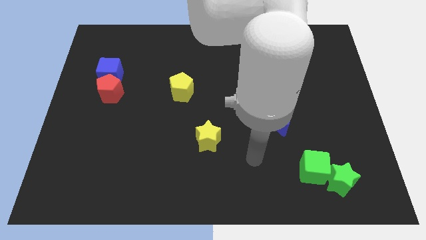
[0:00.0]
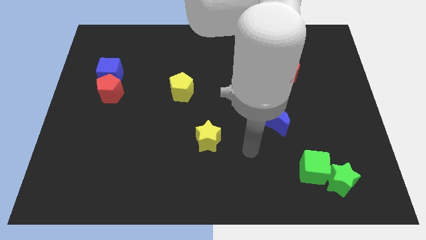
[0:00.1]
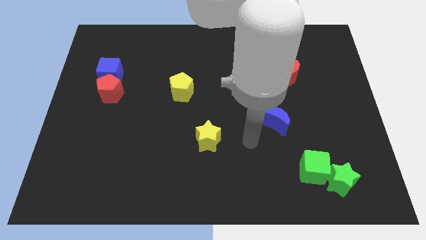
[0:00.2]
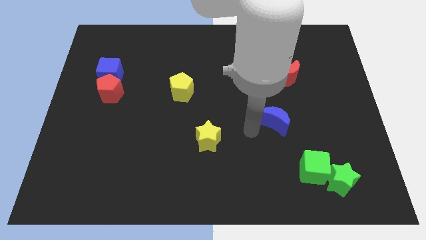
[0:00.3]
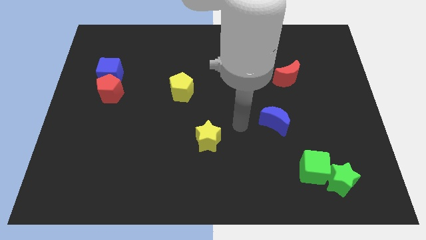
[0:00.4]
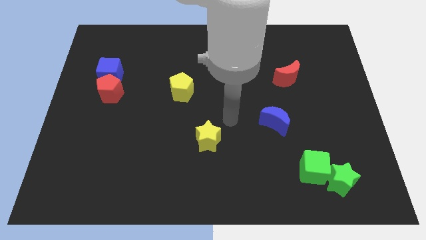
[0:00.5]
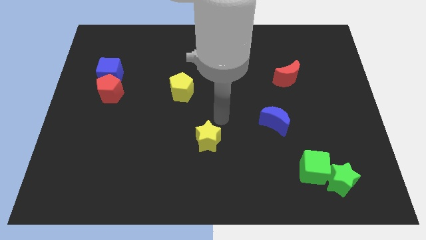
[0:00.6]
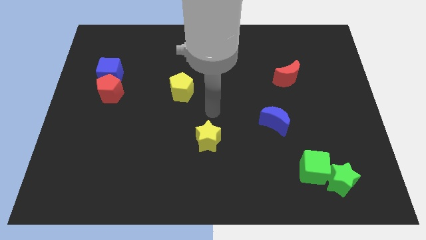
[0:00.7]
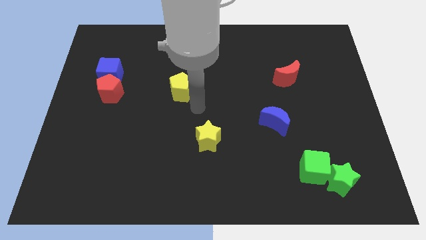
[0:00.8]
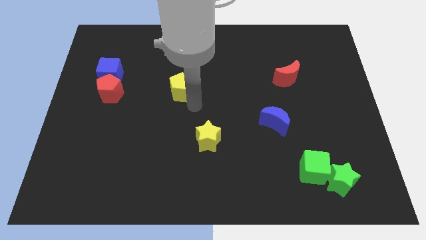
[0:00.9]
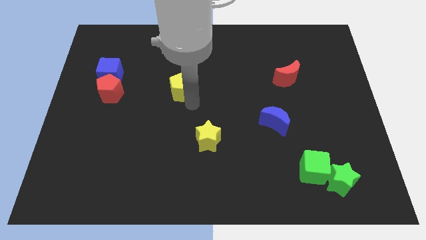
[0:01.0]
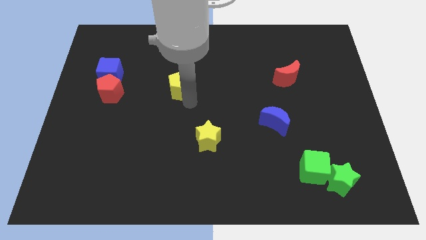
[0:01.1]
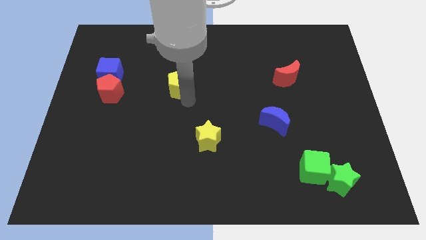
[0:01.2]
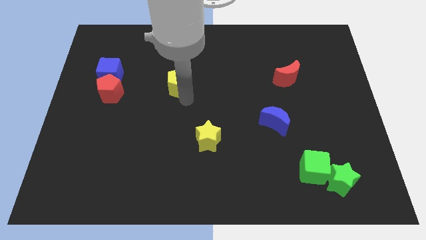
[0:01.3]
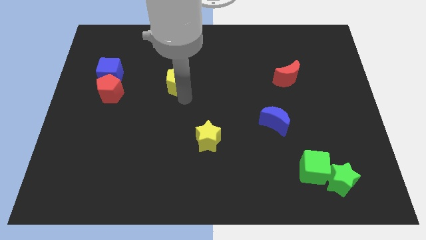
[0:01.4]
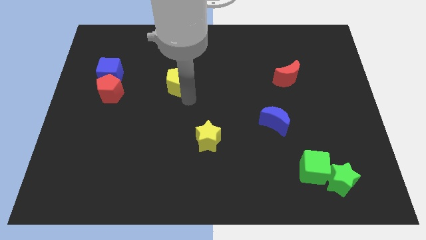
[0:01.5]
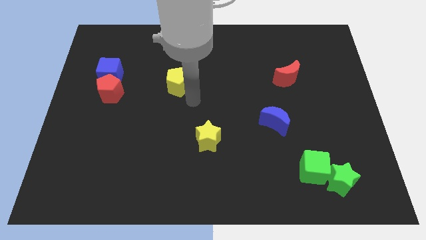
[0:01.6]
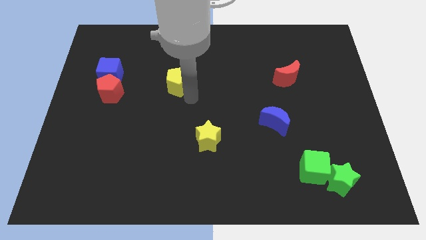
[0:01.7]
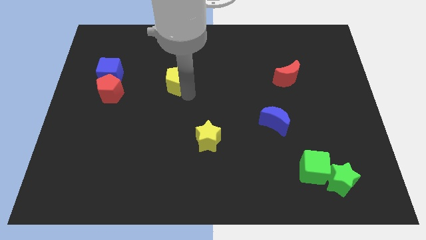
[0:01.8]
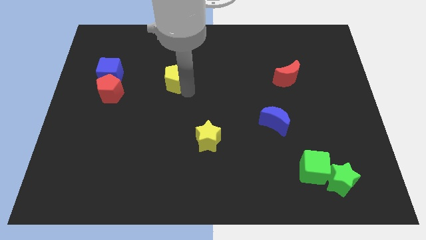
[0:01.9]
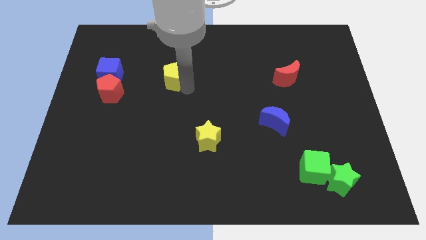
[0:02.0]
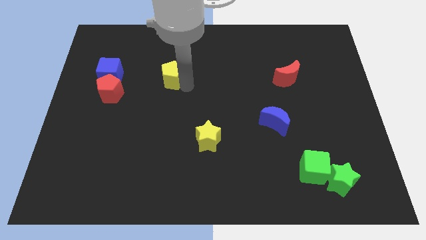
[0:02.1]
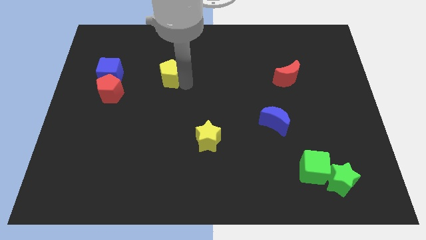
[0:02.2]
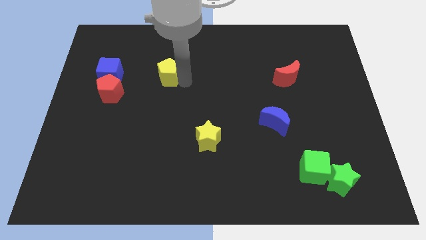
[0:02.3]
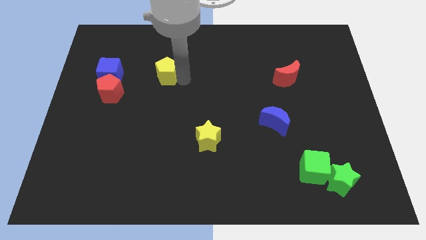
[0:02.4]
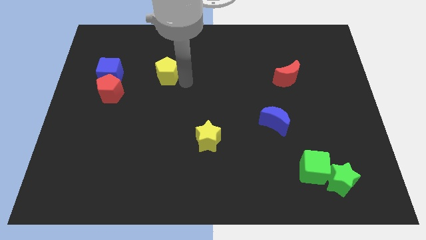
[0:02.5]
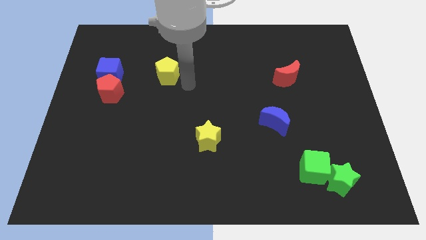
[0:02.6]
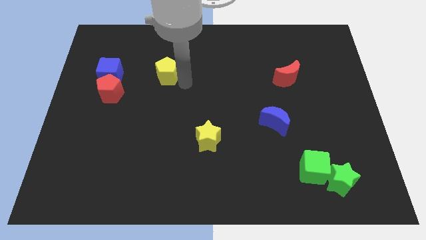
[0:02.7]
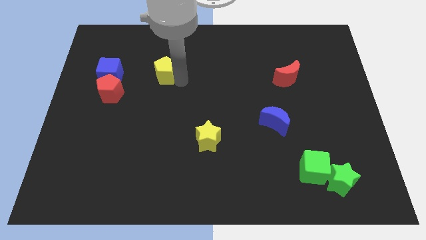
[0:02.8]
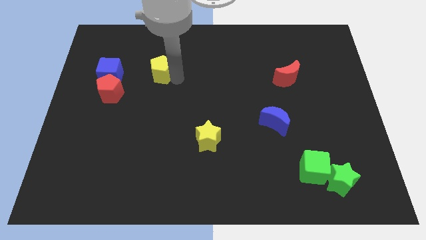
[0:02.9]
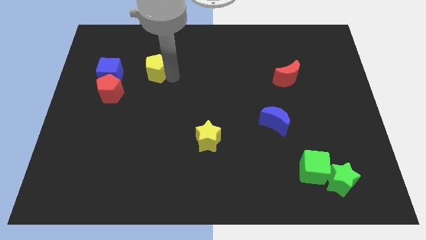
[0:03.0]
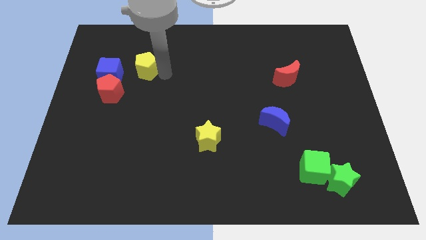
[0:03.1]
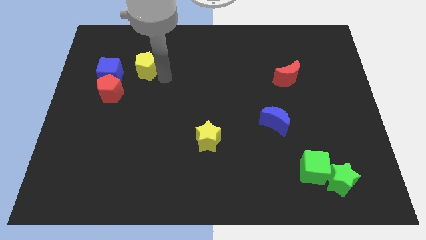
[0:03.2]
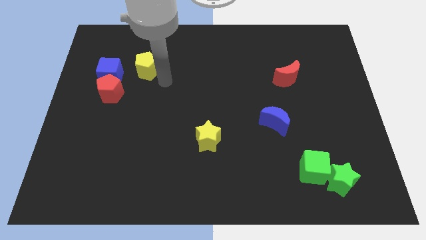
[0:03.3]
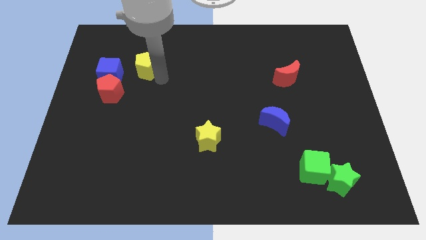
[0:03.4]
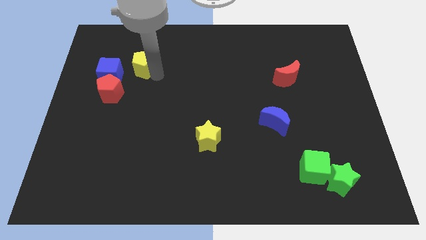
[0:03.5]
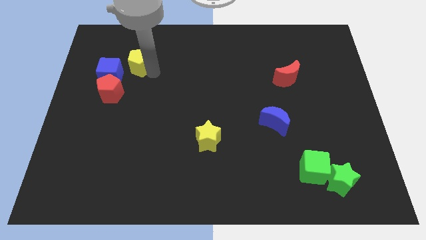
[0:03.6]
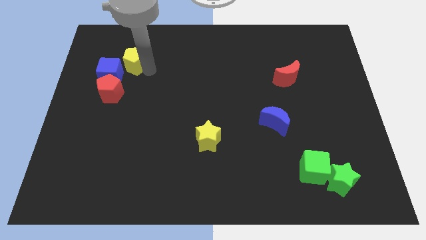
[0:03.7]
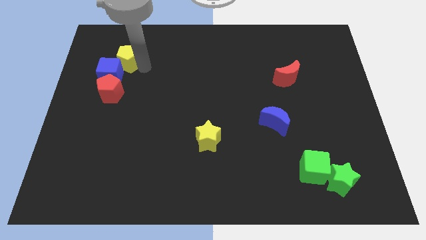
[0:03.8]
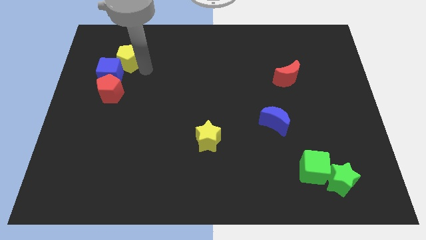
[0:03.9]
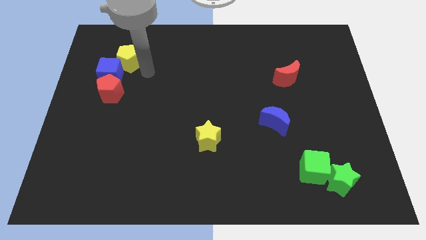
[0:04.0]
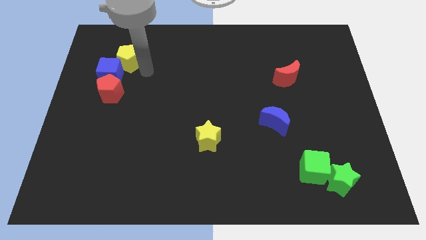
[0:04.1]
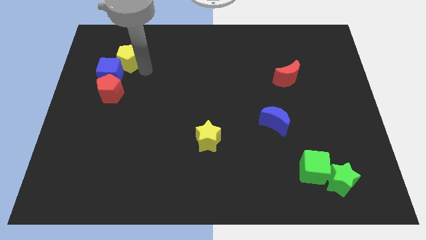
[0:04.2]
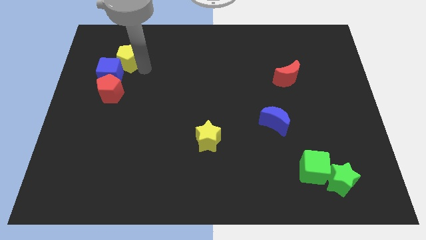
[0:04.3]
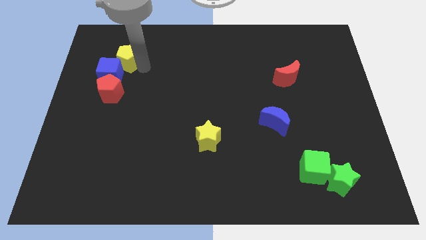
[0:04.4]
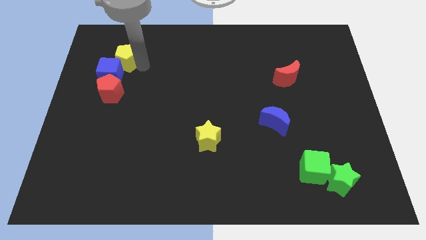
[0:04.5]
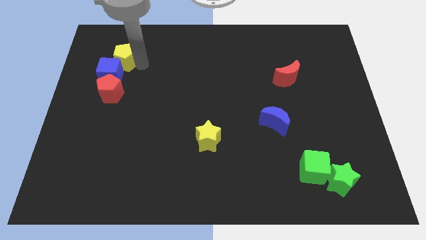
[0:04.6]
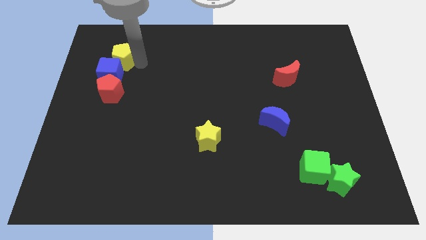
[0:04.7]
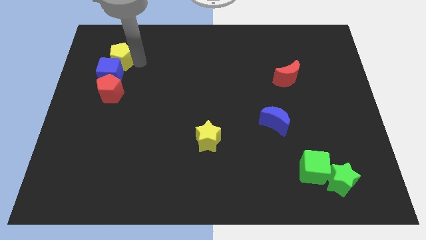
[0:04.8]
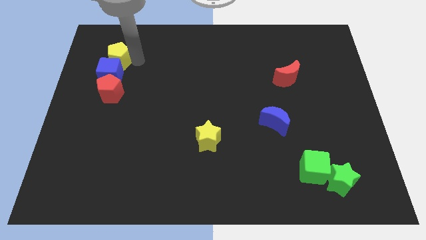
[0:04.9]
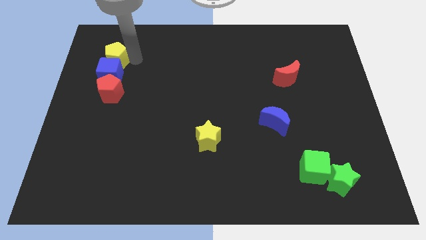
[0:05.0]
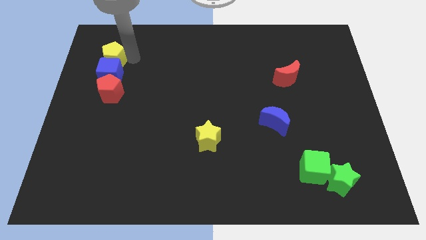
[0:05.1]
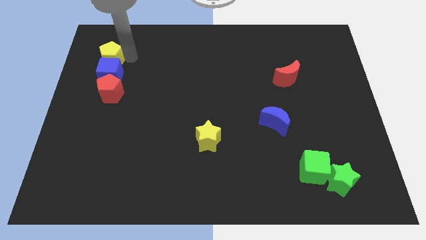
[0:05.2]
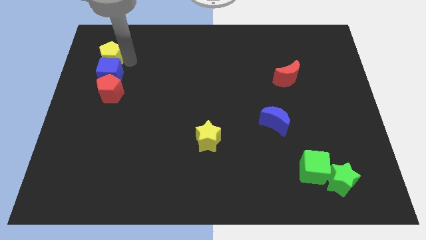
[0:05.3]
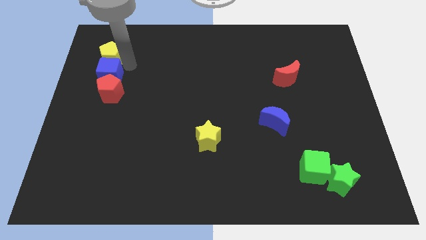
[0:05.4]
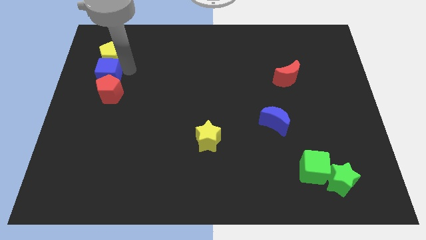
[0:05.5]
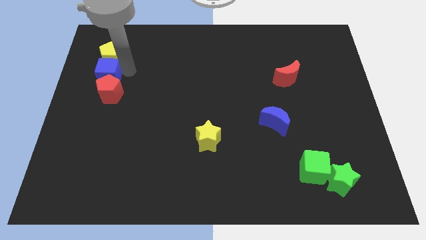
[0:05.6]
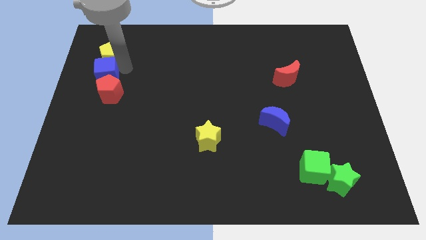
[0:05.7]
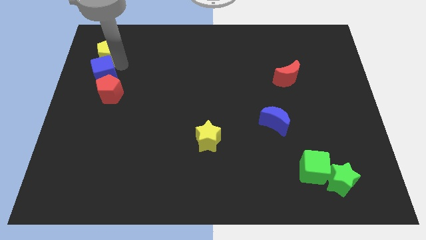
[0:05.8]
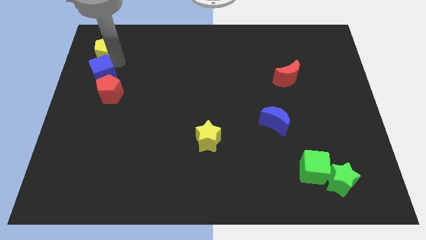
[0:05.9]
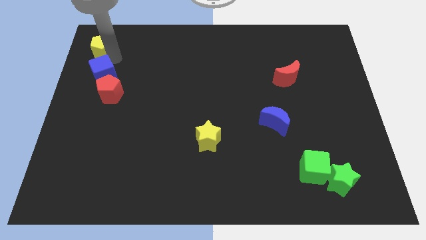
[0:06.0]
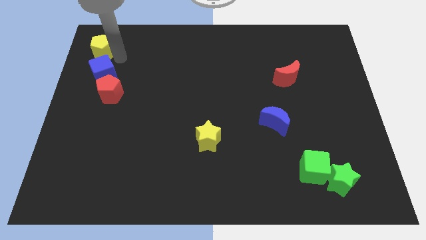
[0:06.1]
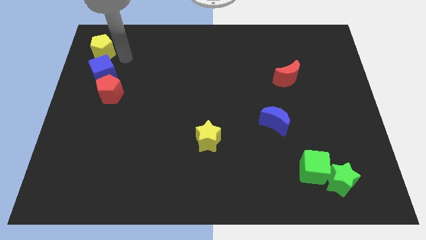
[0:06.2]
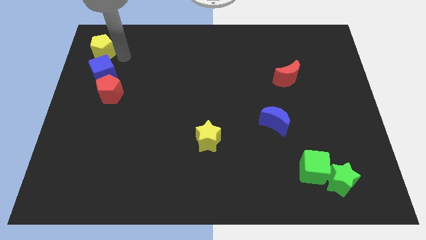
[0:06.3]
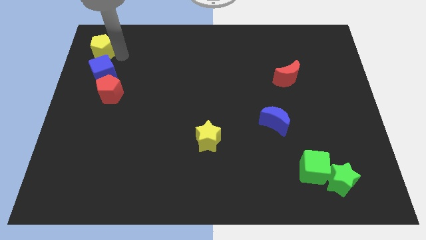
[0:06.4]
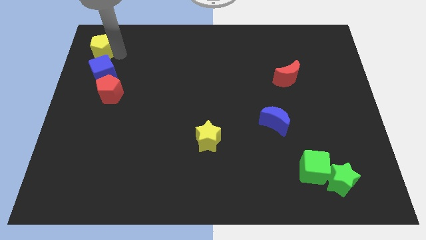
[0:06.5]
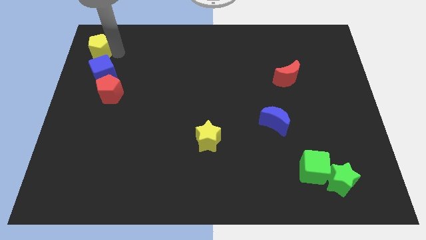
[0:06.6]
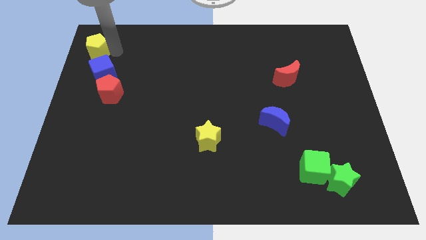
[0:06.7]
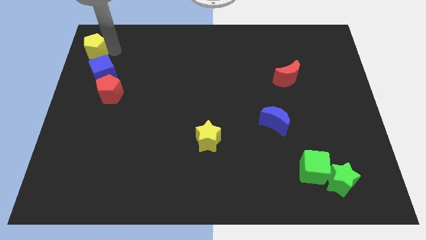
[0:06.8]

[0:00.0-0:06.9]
move the yellow pentagon to the upper left corner
